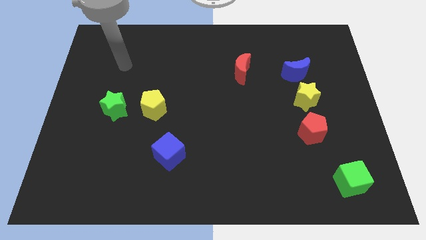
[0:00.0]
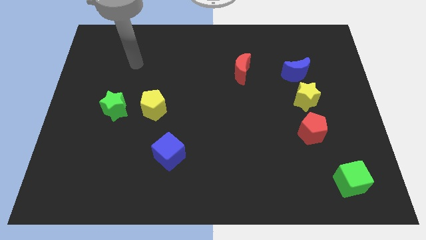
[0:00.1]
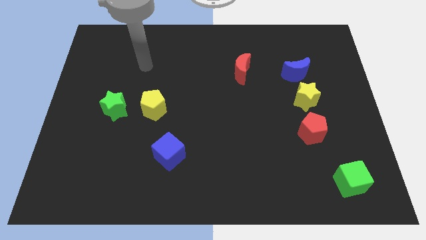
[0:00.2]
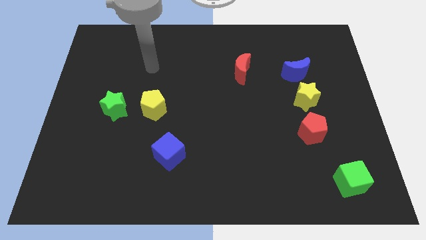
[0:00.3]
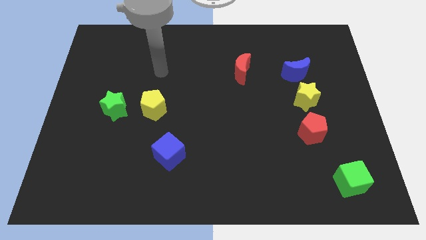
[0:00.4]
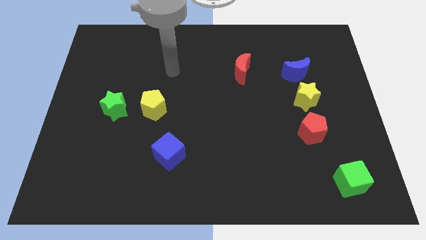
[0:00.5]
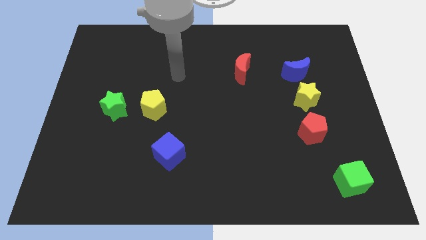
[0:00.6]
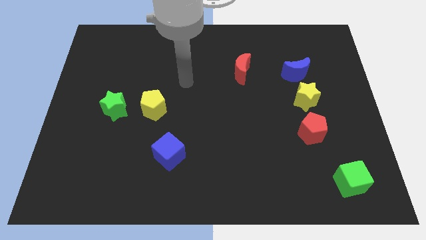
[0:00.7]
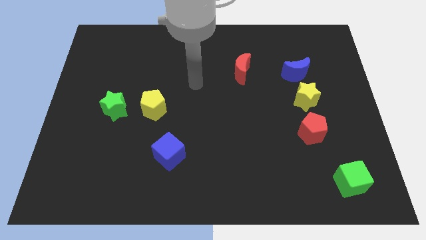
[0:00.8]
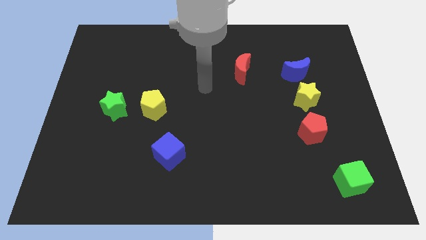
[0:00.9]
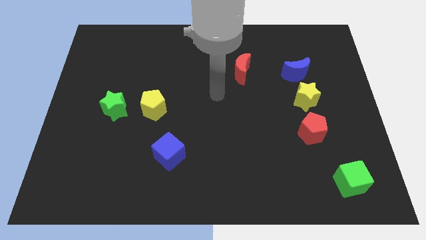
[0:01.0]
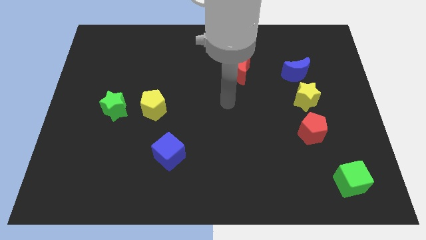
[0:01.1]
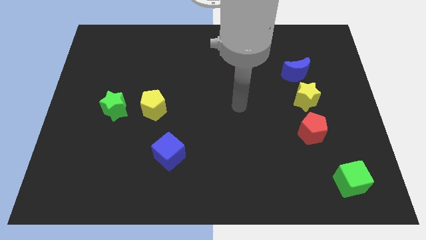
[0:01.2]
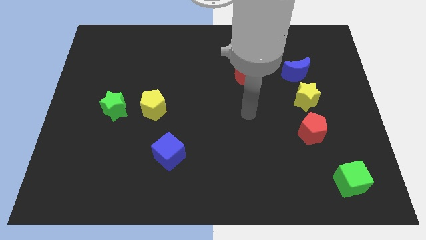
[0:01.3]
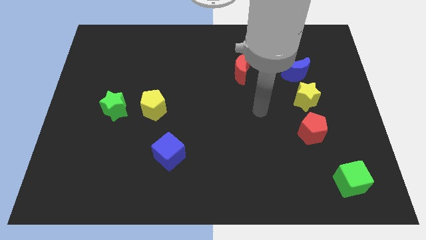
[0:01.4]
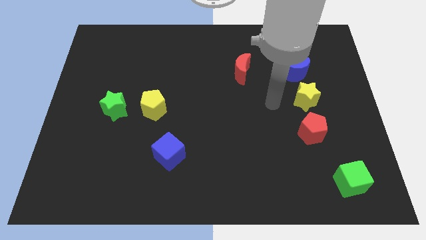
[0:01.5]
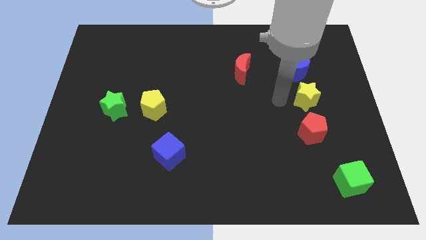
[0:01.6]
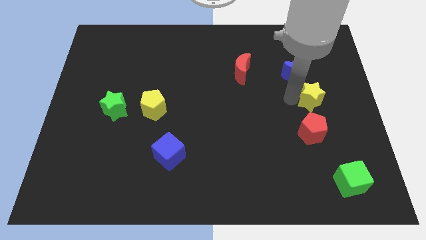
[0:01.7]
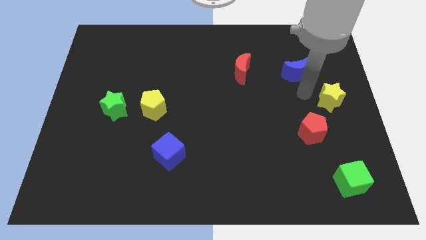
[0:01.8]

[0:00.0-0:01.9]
pull the blue moon apart from the yellow star

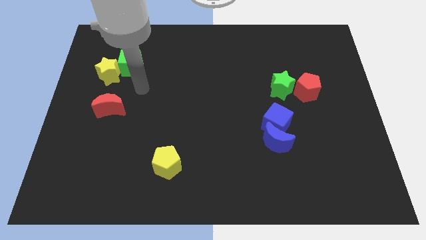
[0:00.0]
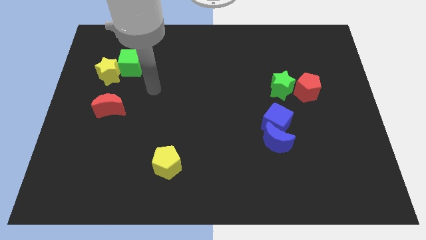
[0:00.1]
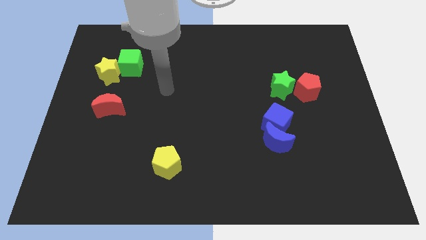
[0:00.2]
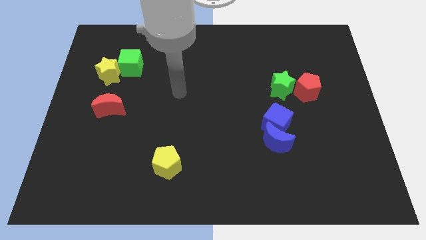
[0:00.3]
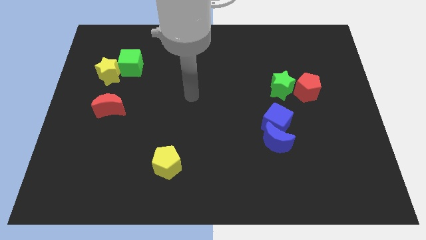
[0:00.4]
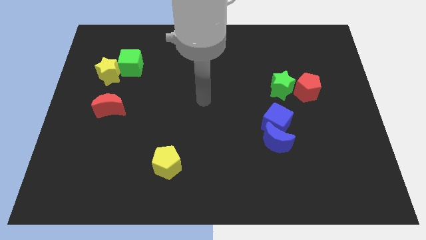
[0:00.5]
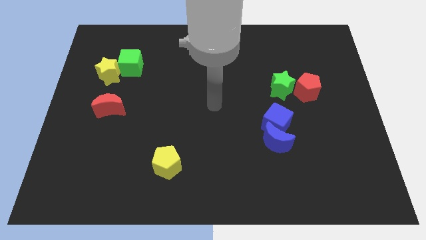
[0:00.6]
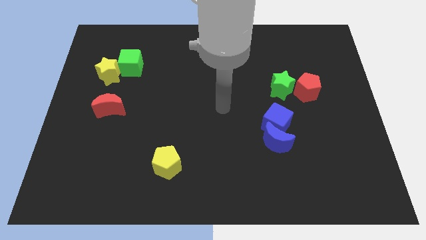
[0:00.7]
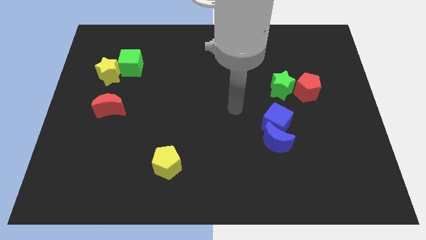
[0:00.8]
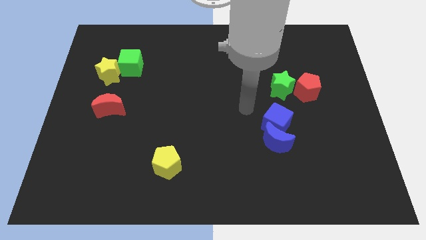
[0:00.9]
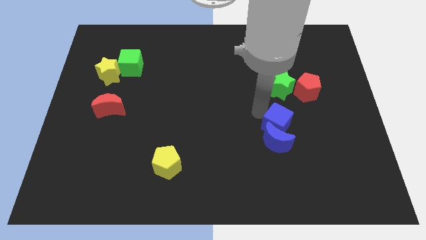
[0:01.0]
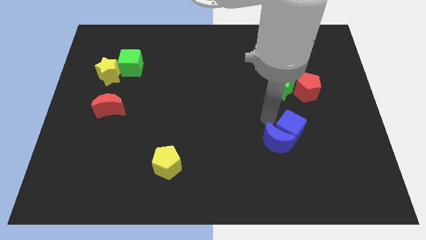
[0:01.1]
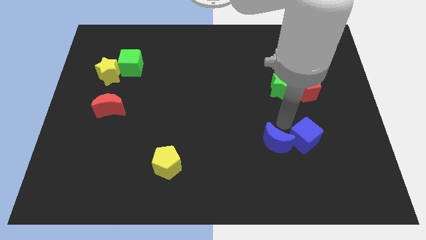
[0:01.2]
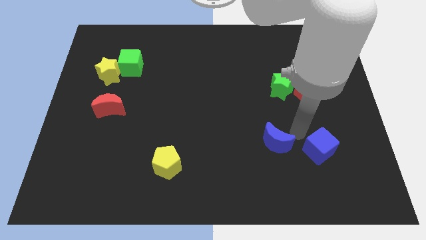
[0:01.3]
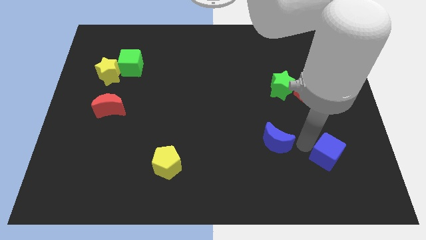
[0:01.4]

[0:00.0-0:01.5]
pull the blue moon apart from the blue cube

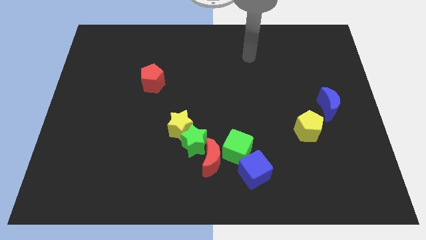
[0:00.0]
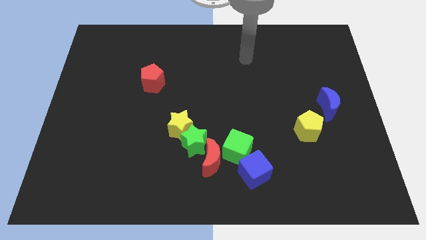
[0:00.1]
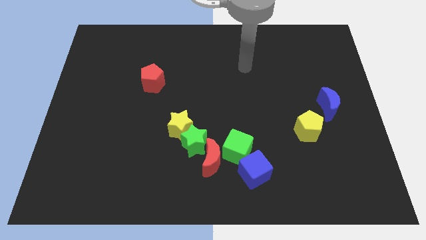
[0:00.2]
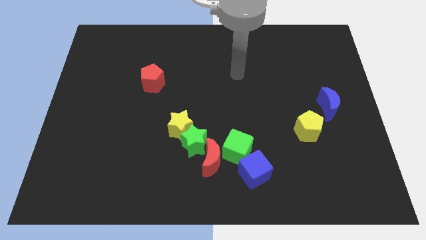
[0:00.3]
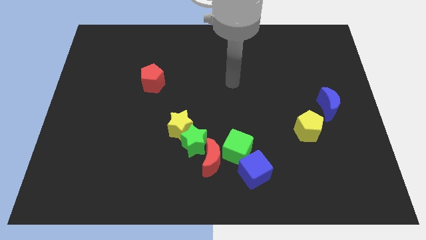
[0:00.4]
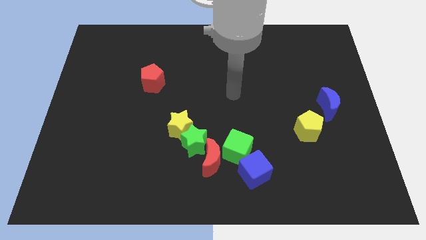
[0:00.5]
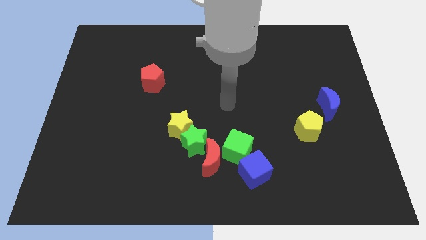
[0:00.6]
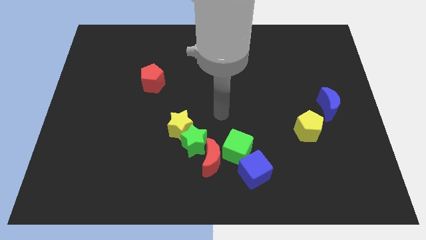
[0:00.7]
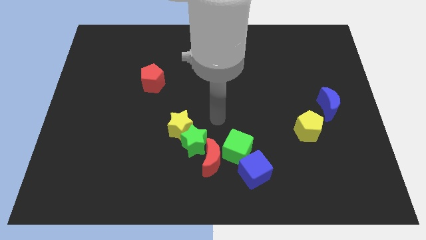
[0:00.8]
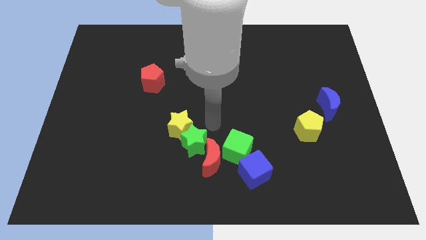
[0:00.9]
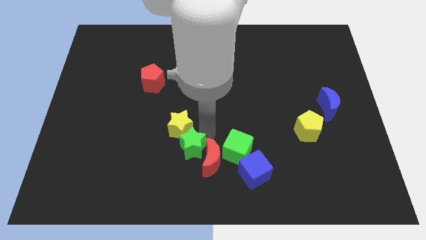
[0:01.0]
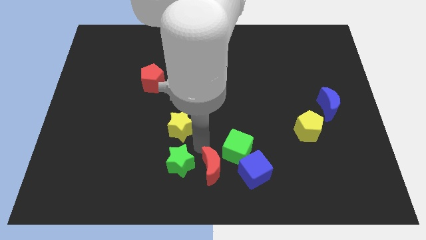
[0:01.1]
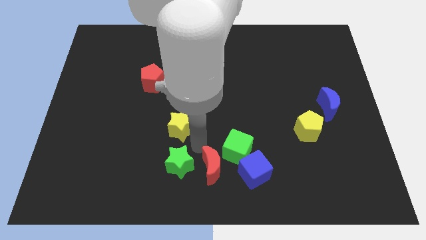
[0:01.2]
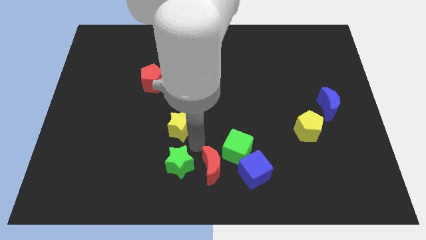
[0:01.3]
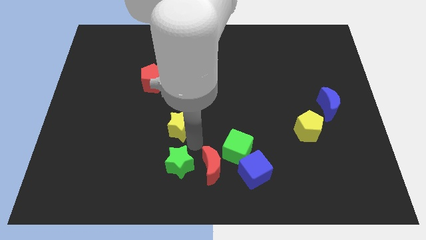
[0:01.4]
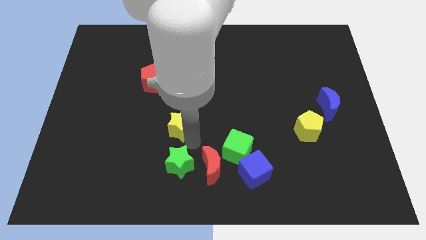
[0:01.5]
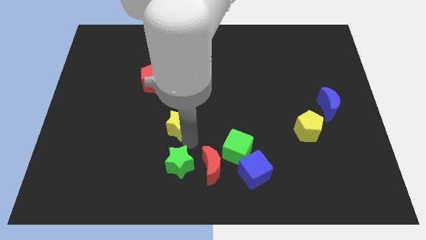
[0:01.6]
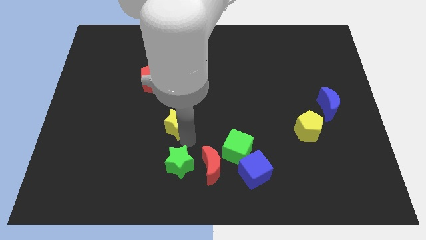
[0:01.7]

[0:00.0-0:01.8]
move the yellow star away from the green star

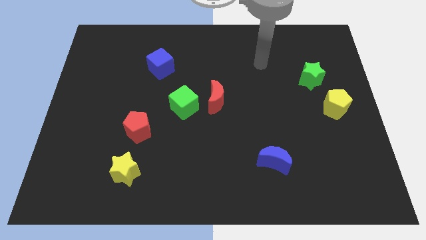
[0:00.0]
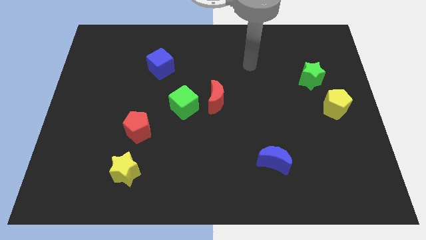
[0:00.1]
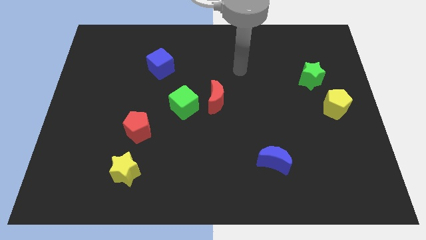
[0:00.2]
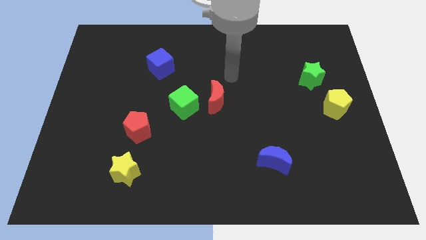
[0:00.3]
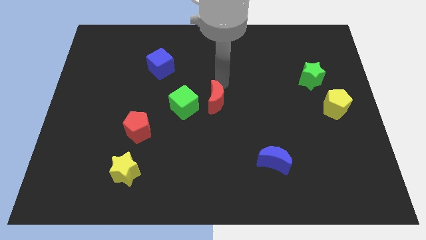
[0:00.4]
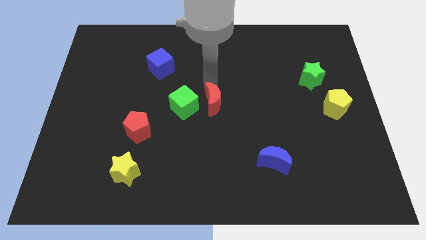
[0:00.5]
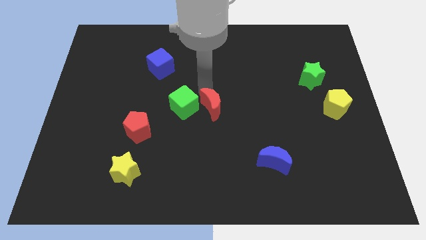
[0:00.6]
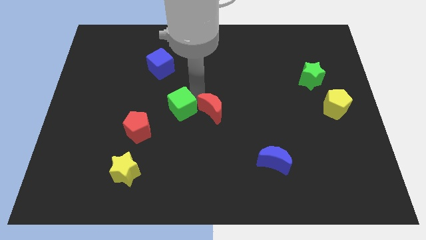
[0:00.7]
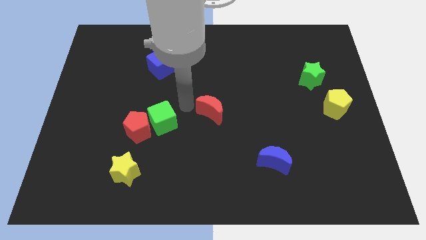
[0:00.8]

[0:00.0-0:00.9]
pull the red moon apart from the green cube

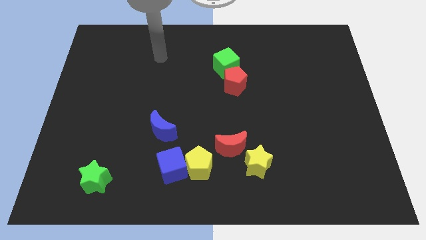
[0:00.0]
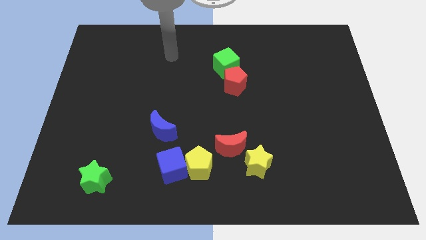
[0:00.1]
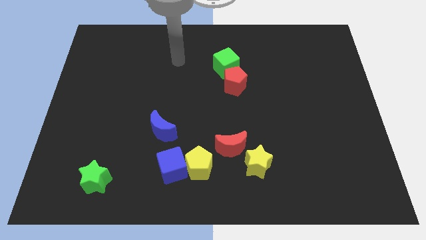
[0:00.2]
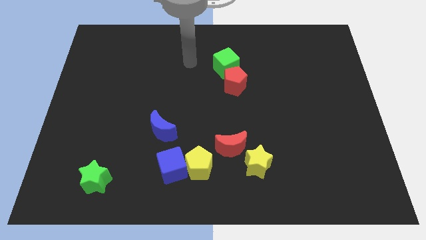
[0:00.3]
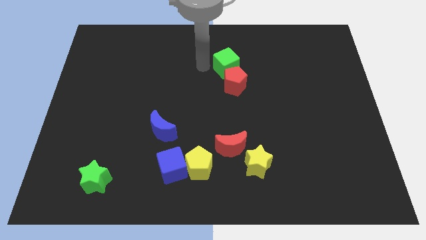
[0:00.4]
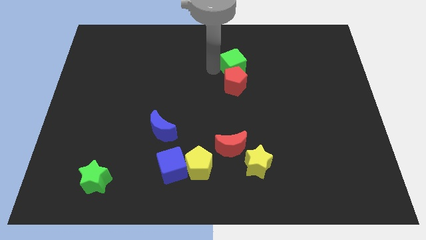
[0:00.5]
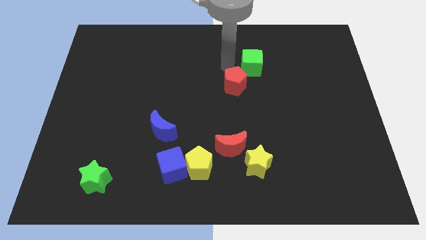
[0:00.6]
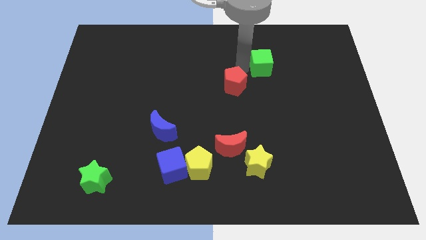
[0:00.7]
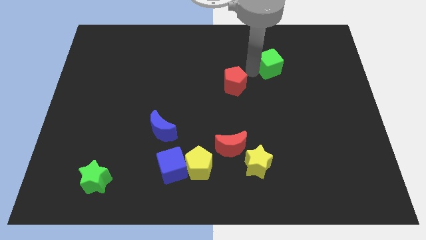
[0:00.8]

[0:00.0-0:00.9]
pull the red pentagon apart from the green cube

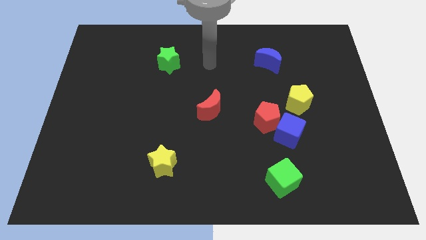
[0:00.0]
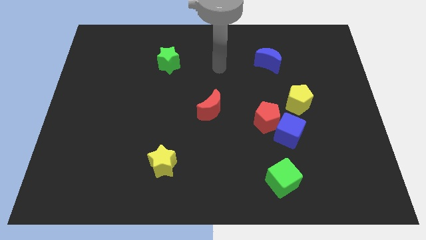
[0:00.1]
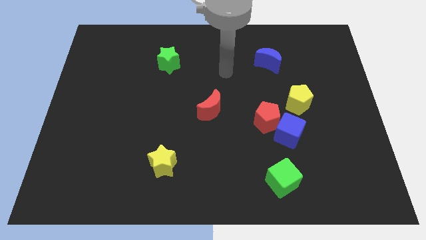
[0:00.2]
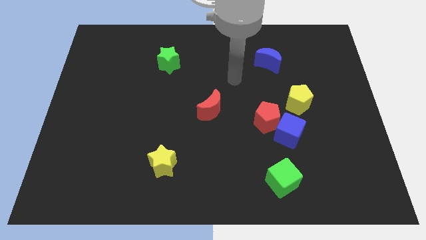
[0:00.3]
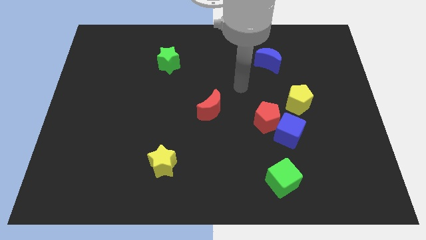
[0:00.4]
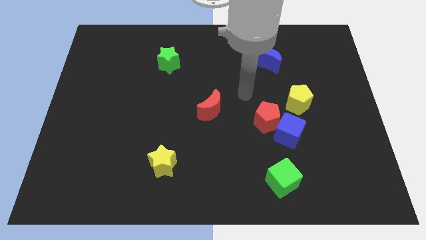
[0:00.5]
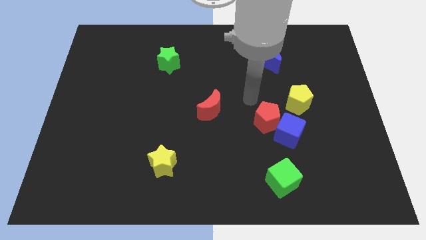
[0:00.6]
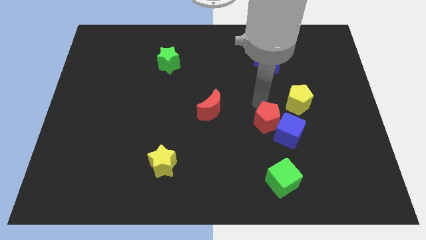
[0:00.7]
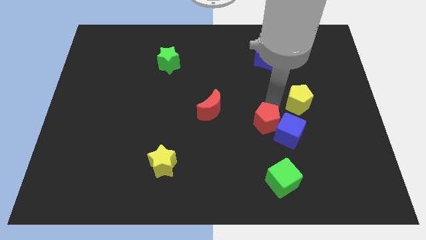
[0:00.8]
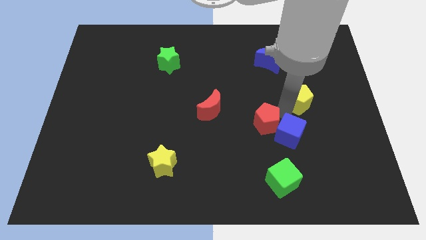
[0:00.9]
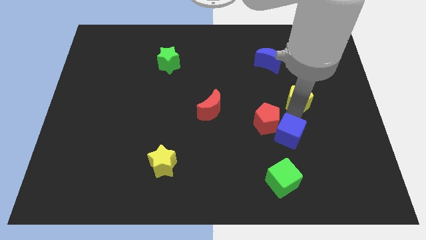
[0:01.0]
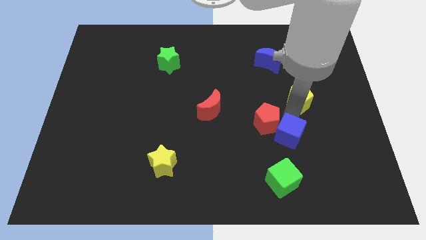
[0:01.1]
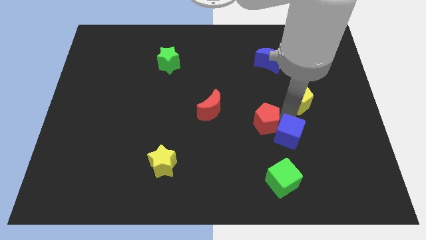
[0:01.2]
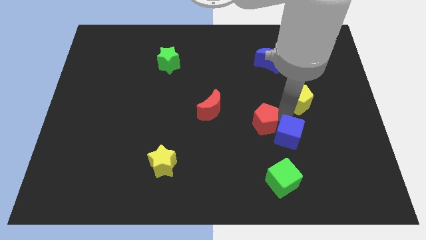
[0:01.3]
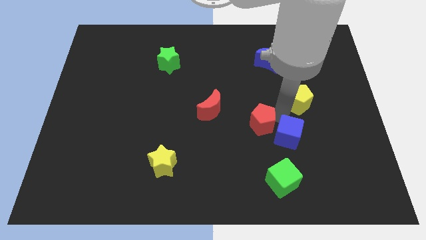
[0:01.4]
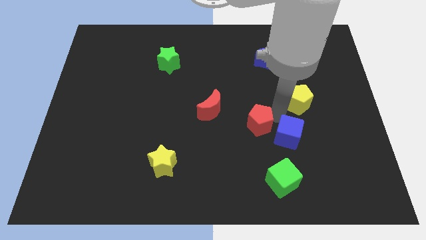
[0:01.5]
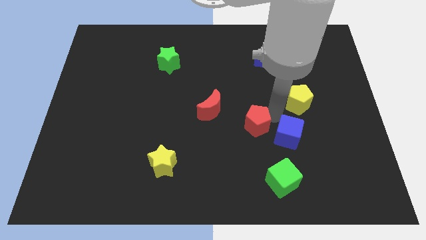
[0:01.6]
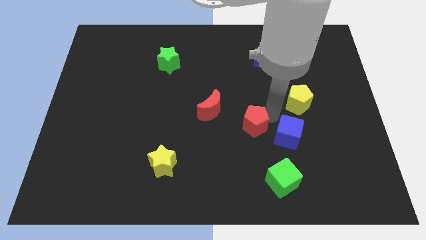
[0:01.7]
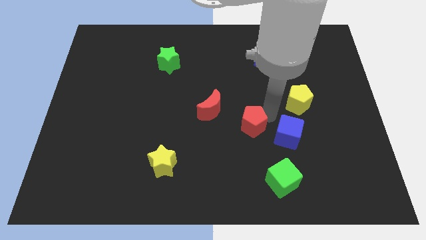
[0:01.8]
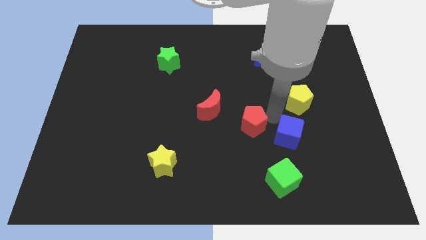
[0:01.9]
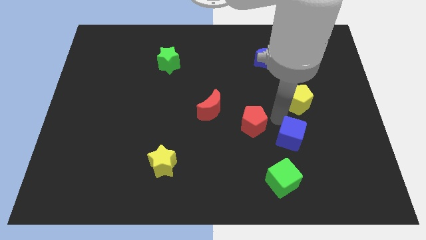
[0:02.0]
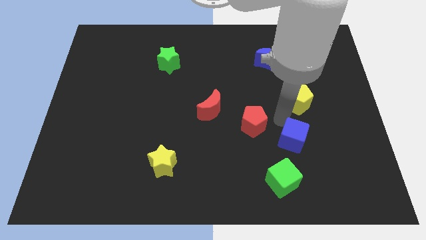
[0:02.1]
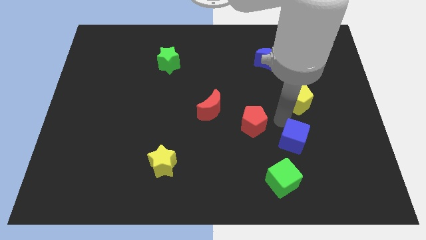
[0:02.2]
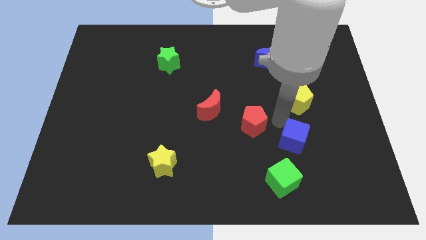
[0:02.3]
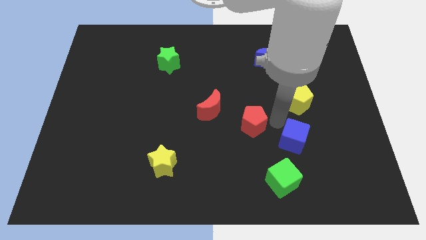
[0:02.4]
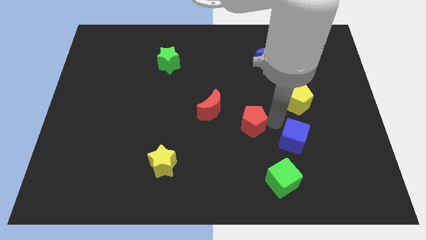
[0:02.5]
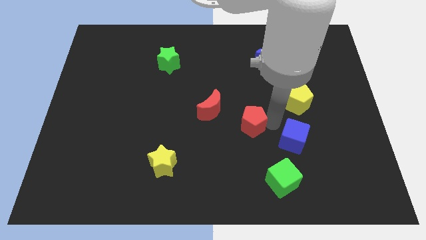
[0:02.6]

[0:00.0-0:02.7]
separate the red pentagon from the blue cube and yellow pentagon
